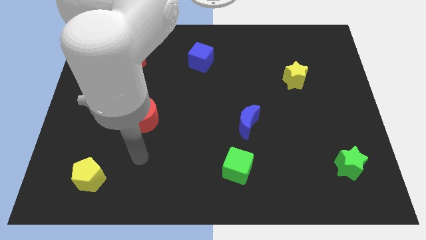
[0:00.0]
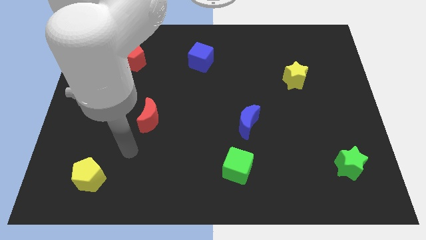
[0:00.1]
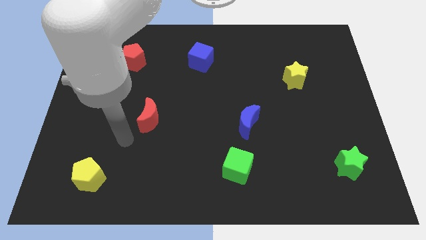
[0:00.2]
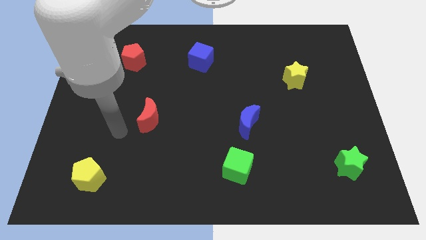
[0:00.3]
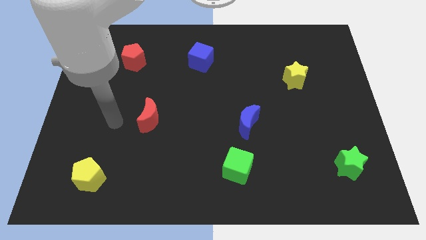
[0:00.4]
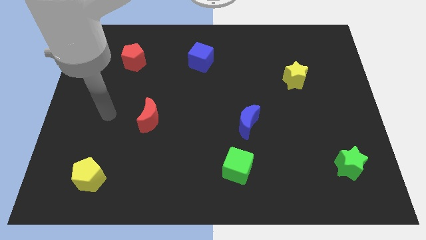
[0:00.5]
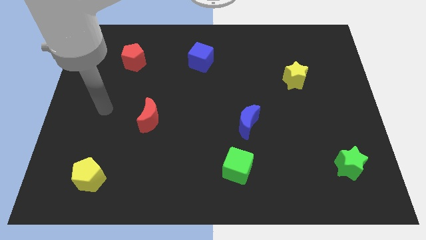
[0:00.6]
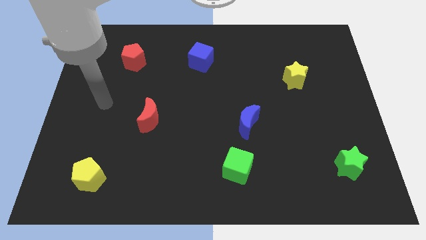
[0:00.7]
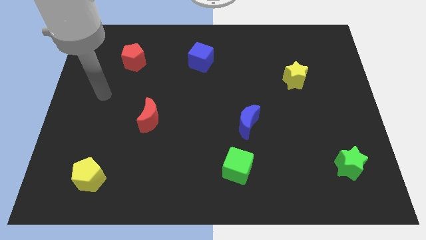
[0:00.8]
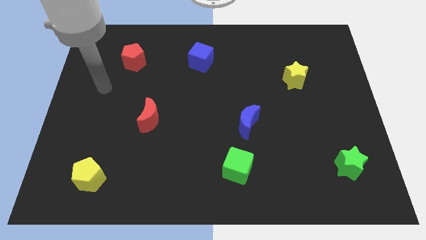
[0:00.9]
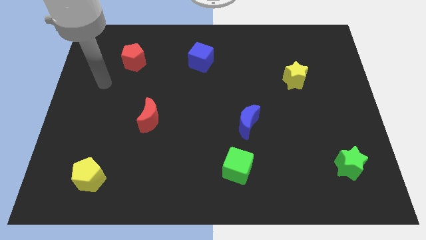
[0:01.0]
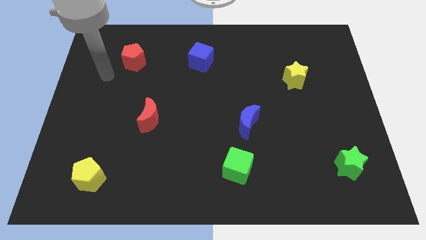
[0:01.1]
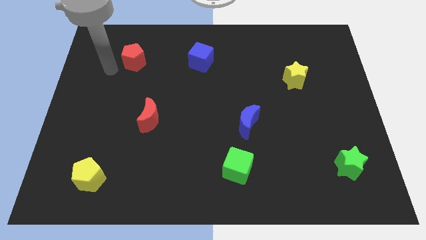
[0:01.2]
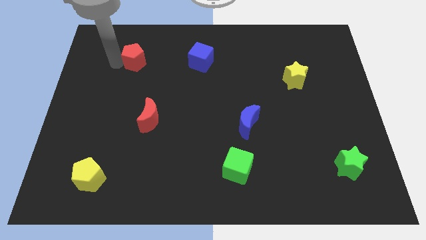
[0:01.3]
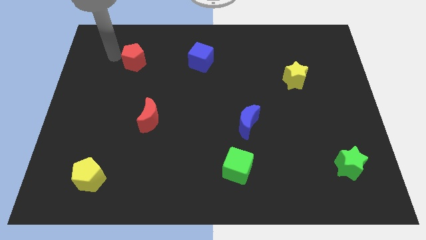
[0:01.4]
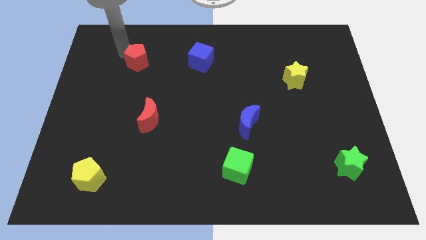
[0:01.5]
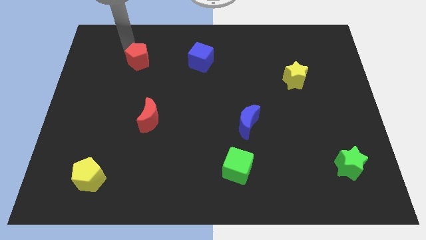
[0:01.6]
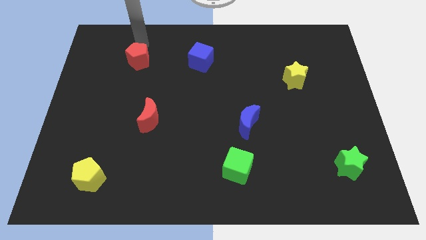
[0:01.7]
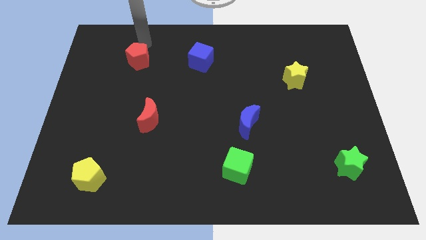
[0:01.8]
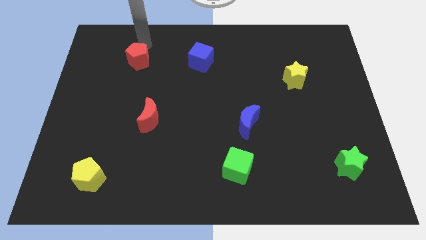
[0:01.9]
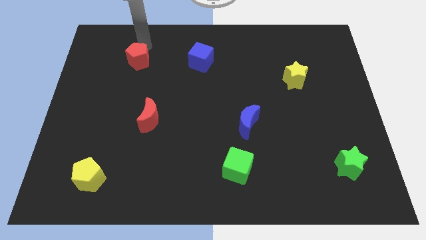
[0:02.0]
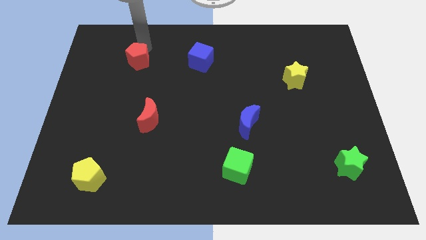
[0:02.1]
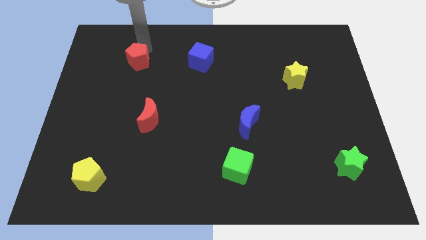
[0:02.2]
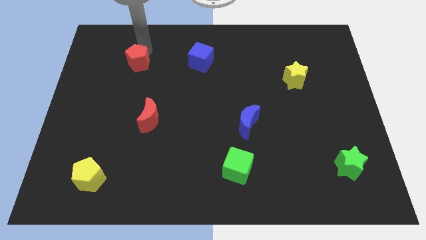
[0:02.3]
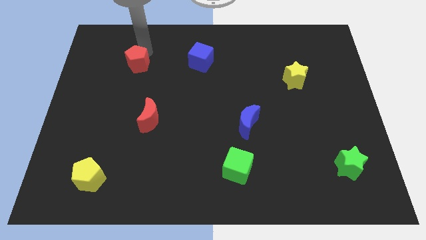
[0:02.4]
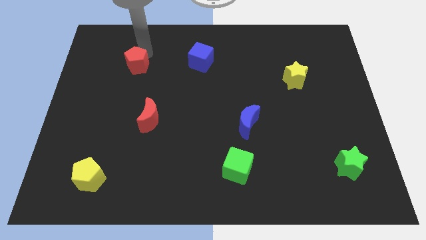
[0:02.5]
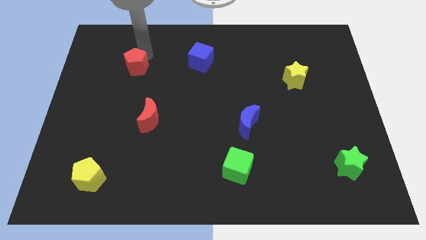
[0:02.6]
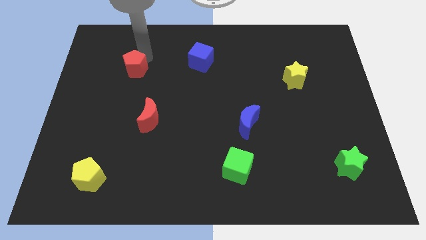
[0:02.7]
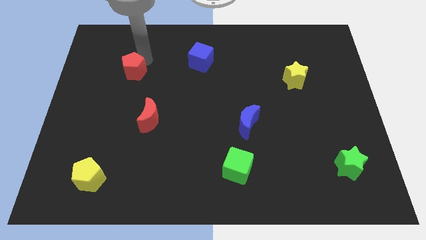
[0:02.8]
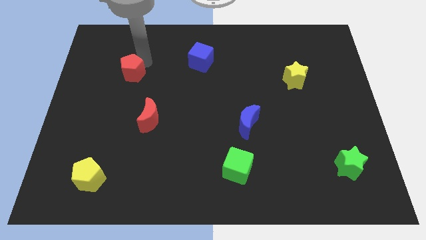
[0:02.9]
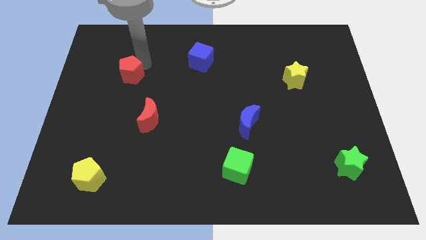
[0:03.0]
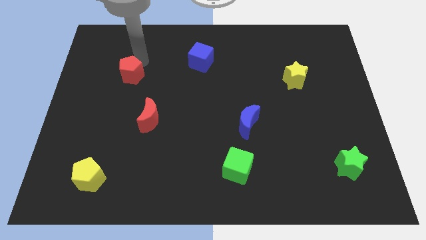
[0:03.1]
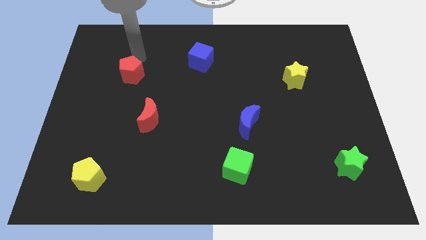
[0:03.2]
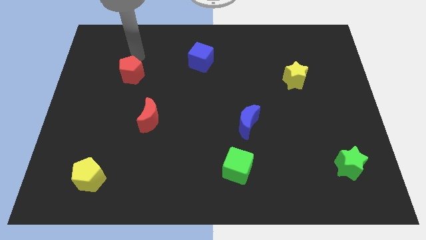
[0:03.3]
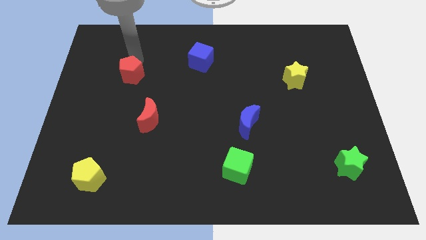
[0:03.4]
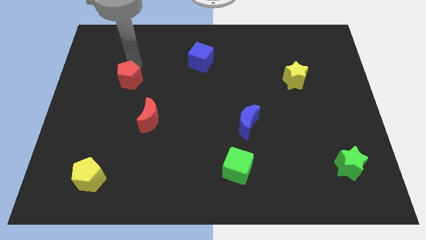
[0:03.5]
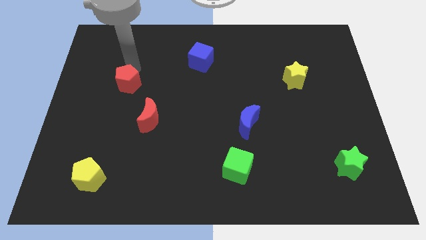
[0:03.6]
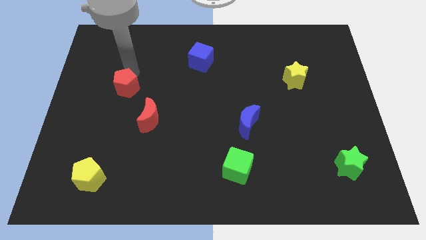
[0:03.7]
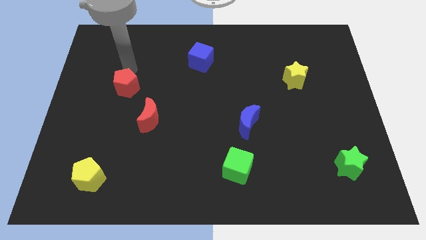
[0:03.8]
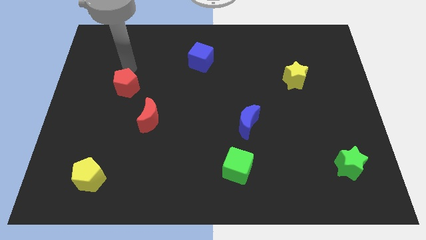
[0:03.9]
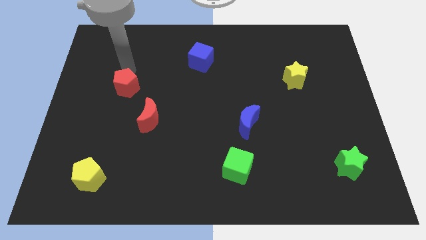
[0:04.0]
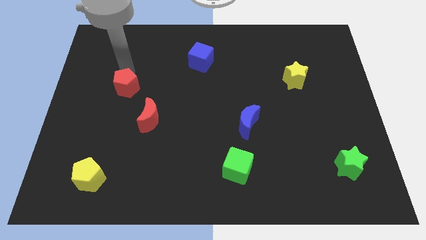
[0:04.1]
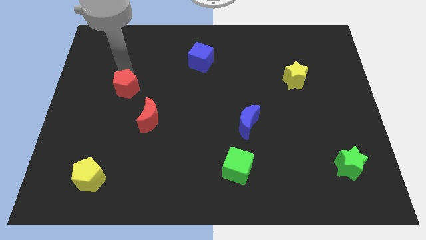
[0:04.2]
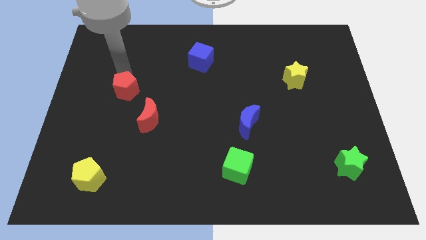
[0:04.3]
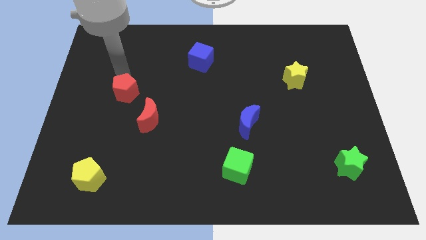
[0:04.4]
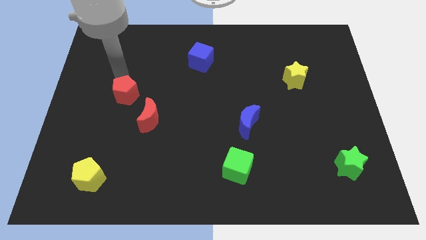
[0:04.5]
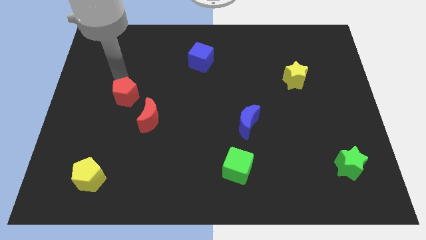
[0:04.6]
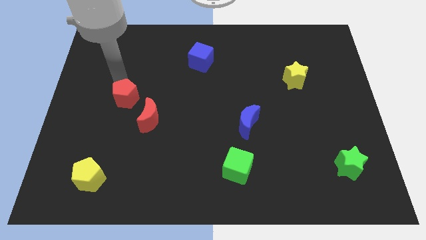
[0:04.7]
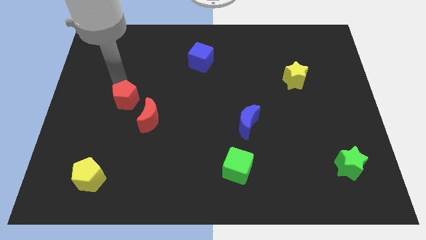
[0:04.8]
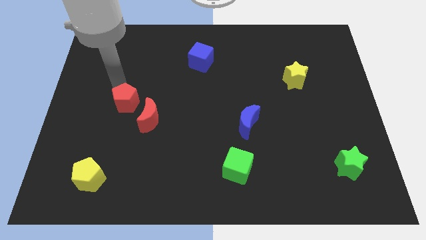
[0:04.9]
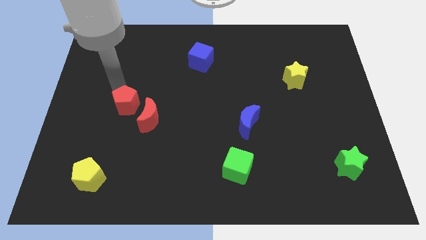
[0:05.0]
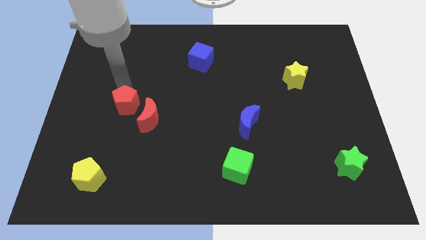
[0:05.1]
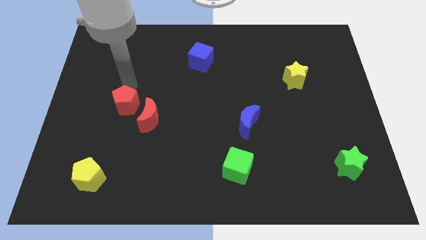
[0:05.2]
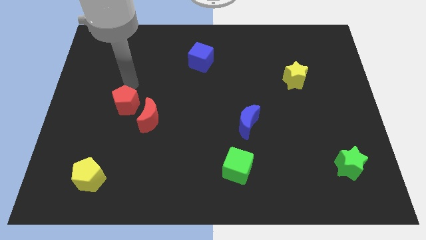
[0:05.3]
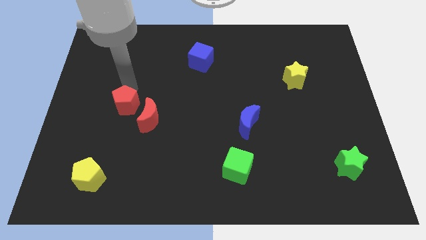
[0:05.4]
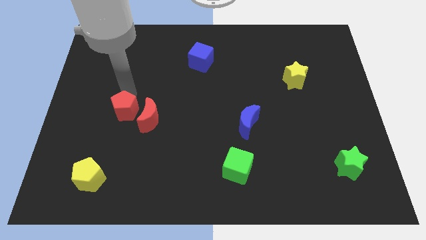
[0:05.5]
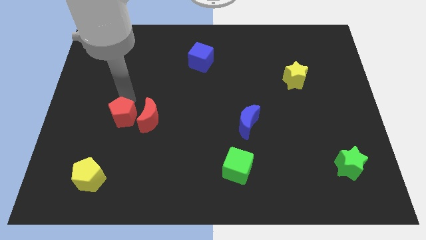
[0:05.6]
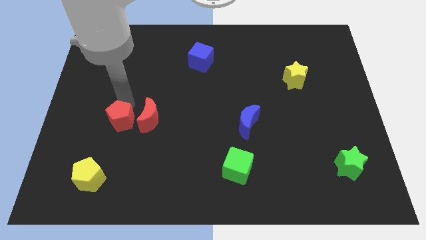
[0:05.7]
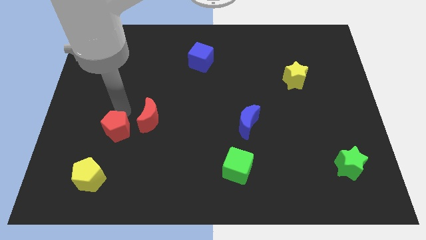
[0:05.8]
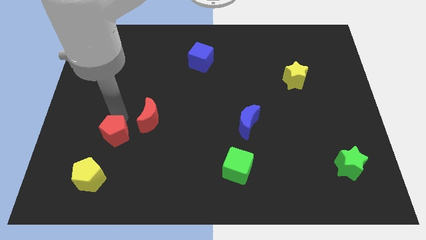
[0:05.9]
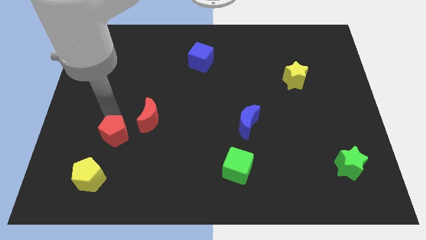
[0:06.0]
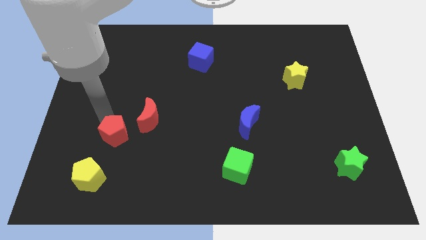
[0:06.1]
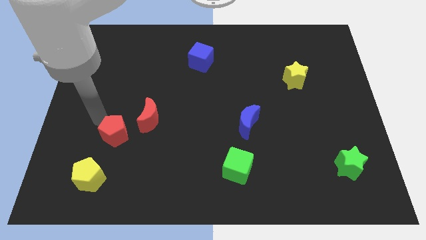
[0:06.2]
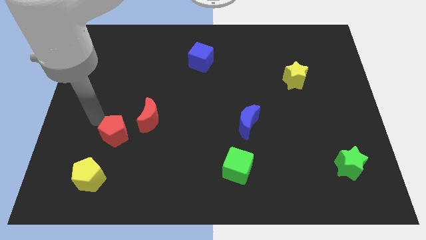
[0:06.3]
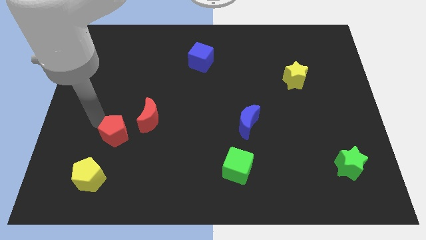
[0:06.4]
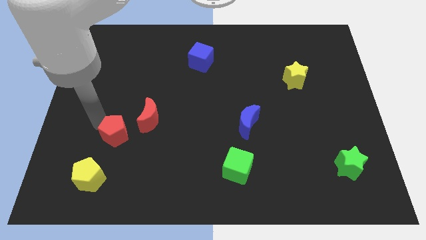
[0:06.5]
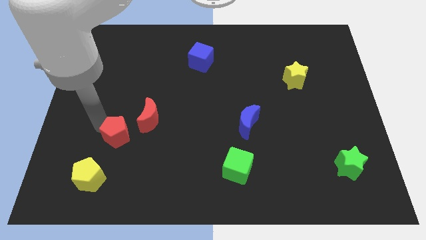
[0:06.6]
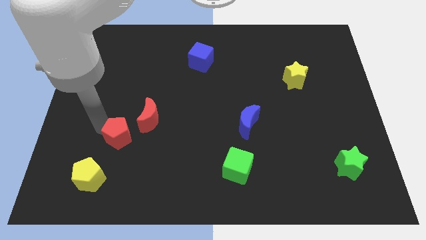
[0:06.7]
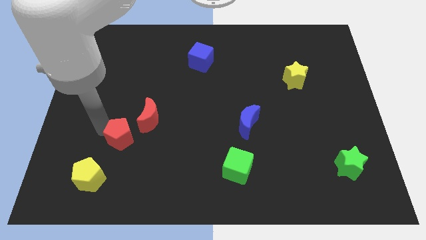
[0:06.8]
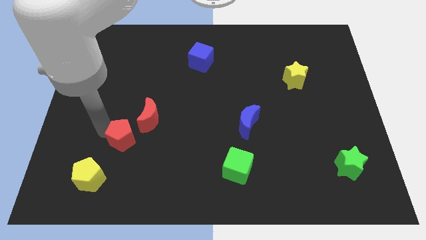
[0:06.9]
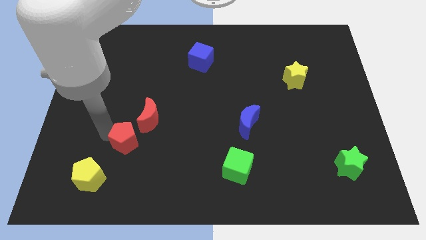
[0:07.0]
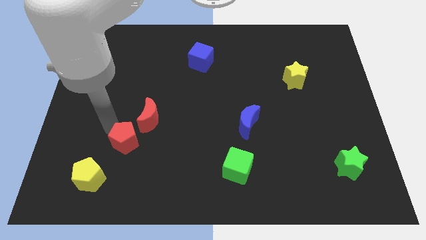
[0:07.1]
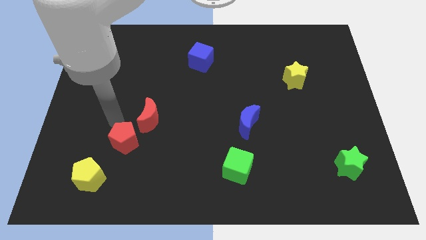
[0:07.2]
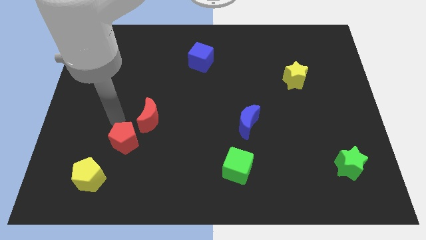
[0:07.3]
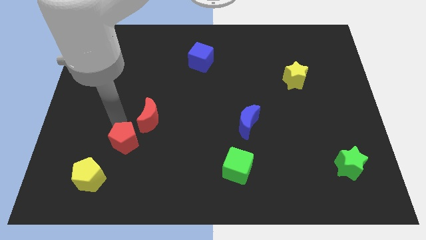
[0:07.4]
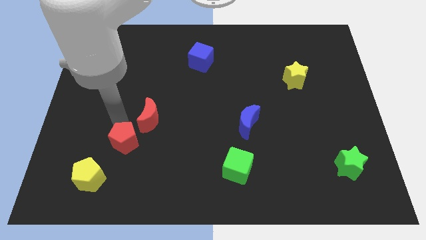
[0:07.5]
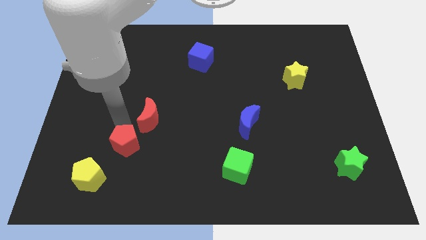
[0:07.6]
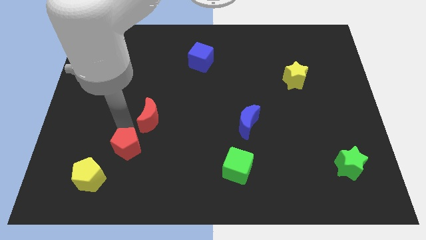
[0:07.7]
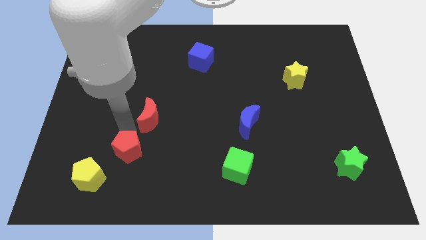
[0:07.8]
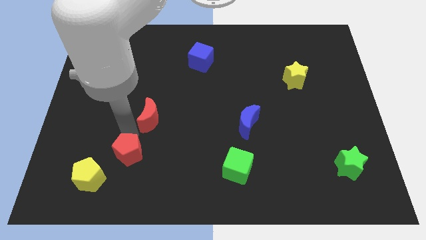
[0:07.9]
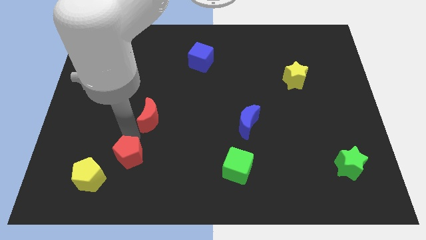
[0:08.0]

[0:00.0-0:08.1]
slide the red pentagon right of the yellow pentagon

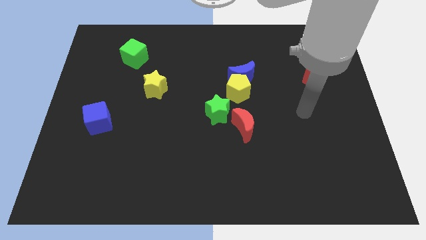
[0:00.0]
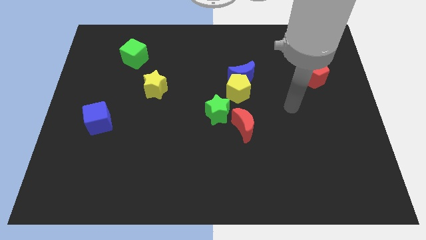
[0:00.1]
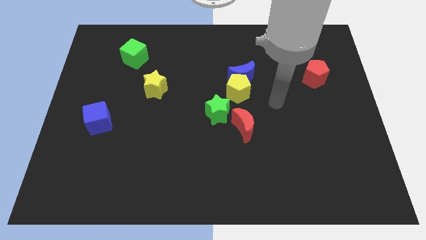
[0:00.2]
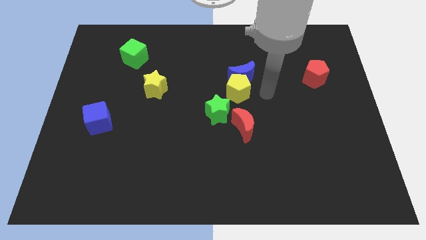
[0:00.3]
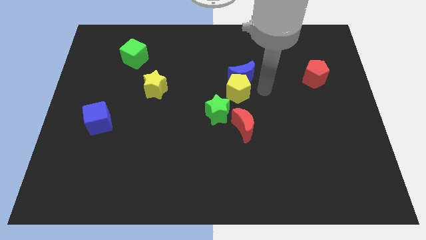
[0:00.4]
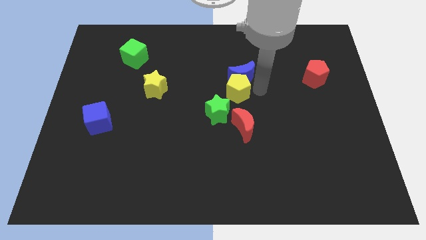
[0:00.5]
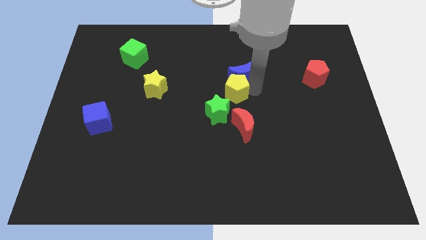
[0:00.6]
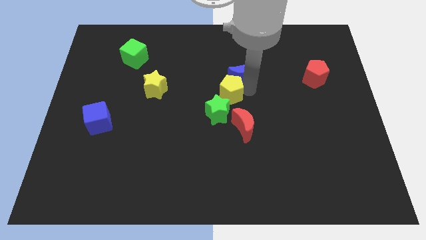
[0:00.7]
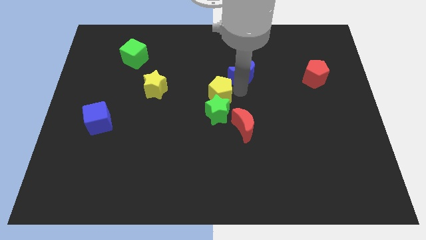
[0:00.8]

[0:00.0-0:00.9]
push the yellow pentagon to the top left side of the green star
